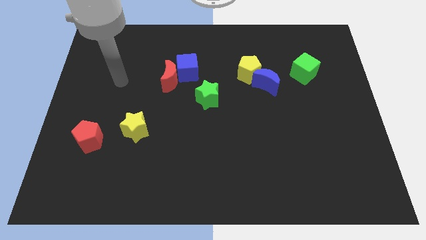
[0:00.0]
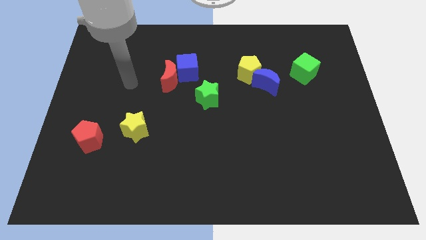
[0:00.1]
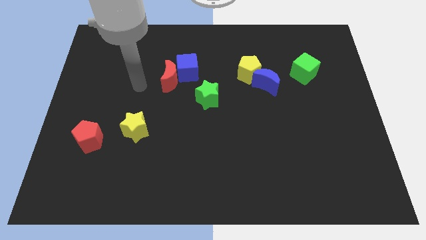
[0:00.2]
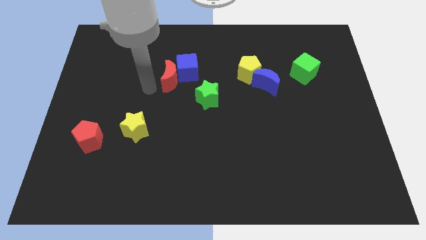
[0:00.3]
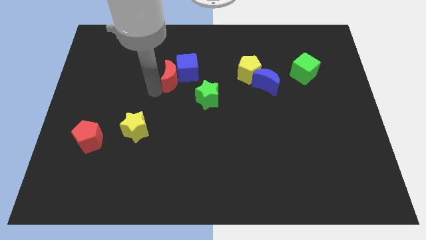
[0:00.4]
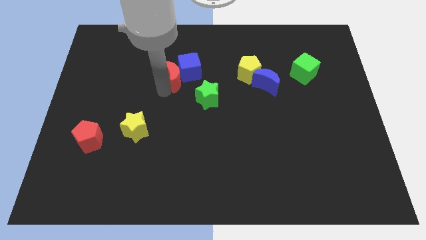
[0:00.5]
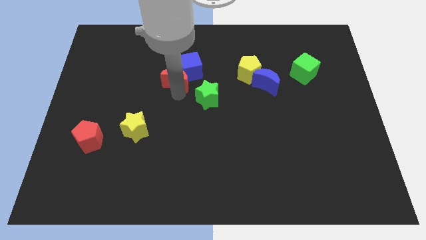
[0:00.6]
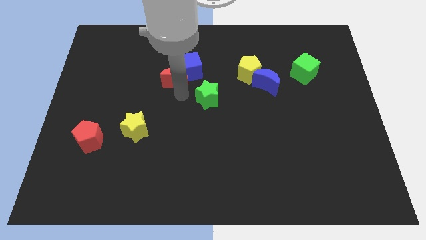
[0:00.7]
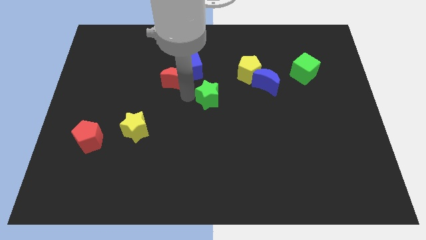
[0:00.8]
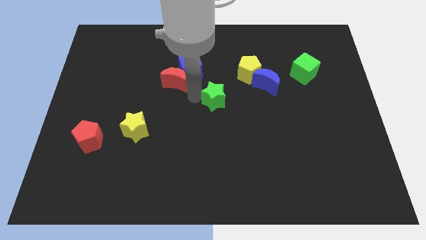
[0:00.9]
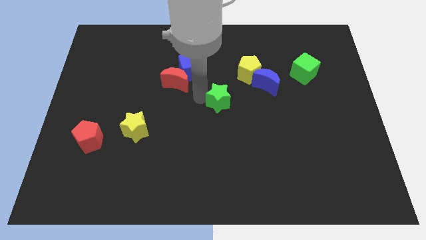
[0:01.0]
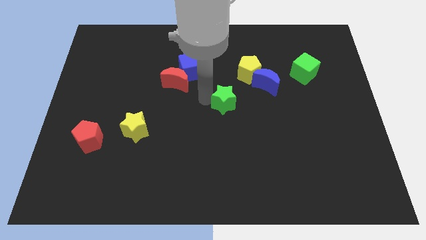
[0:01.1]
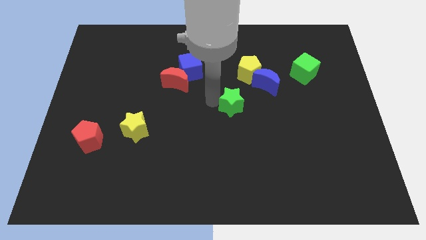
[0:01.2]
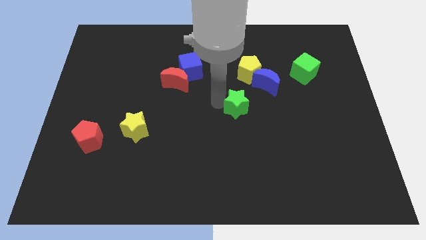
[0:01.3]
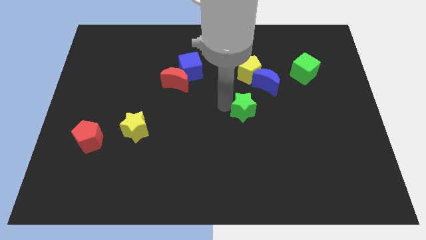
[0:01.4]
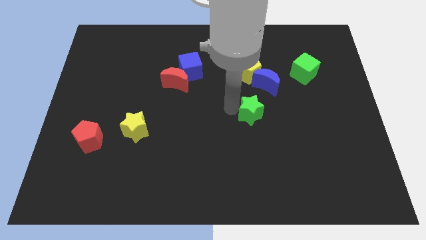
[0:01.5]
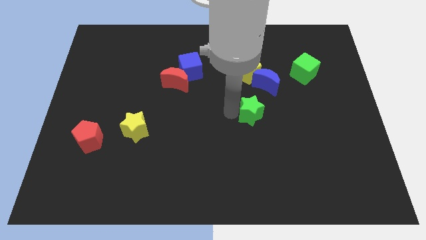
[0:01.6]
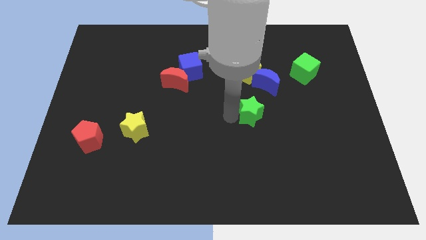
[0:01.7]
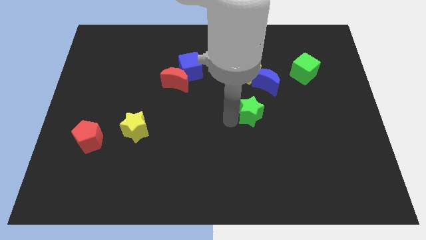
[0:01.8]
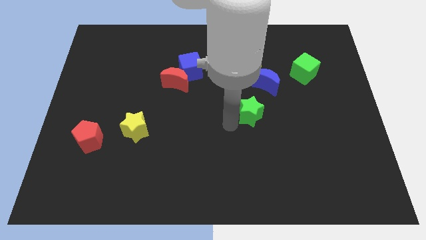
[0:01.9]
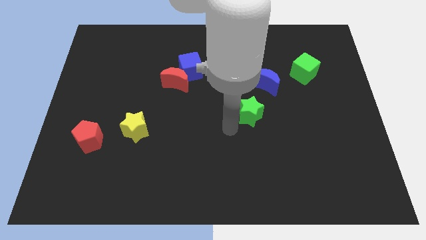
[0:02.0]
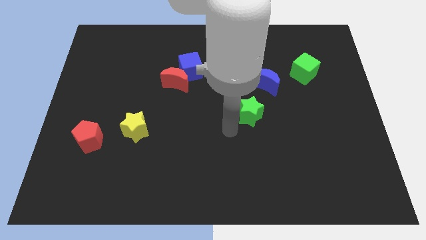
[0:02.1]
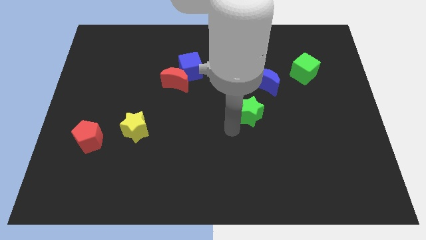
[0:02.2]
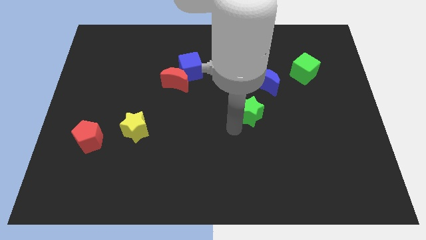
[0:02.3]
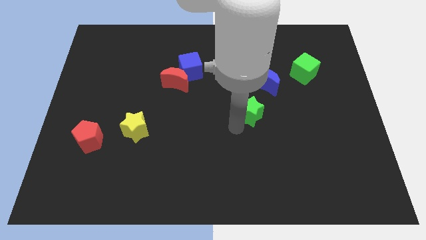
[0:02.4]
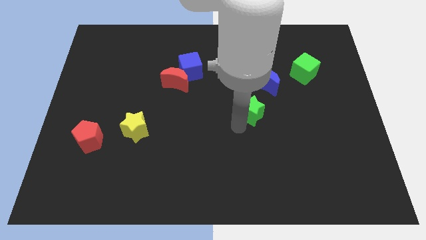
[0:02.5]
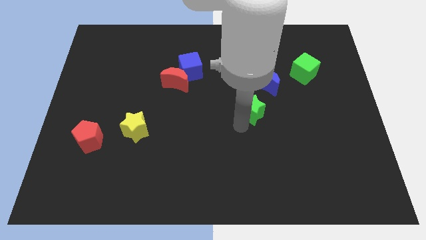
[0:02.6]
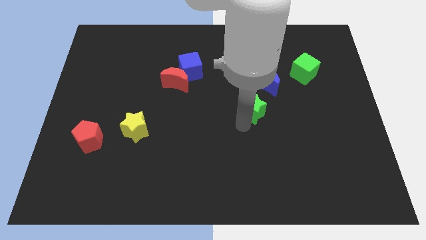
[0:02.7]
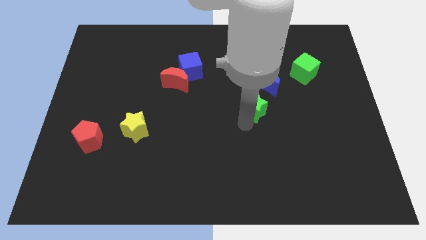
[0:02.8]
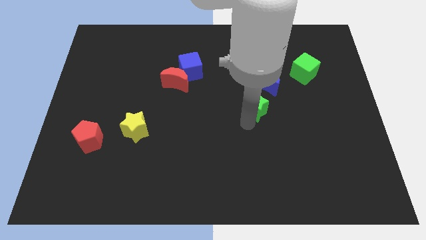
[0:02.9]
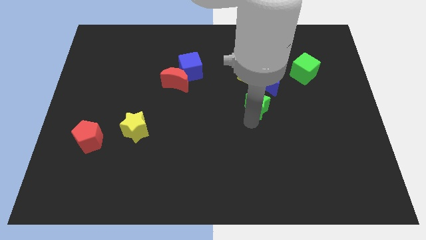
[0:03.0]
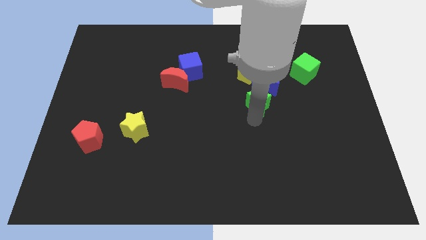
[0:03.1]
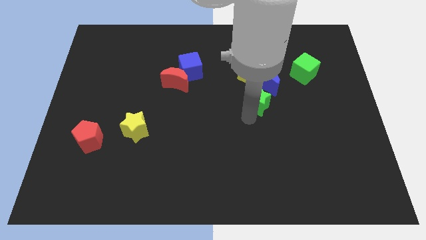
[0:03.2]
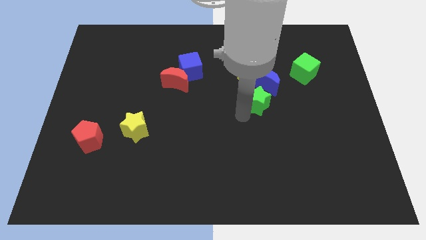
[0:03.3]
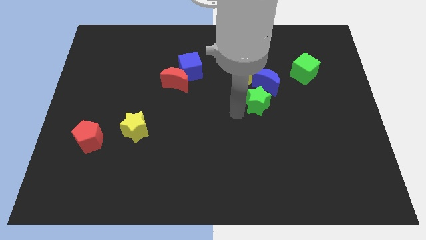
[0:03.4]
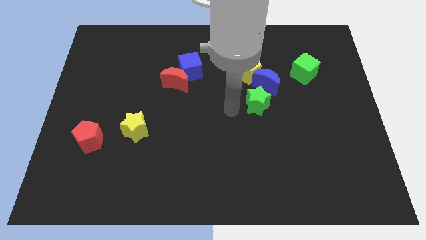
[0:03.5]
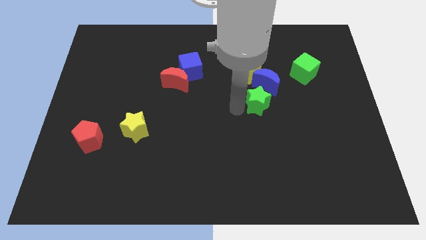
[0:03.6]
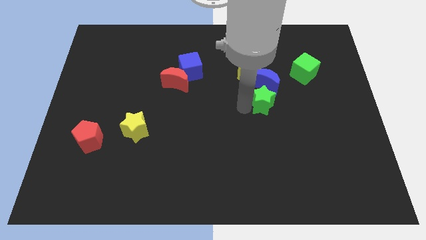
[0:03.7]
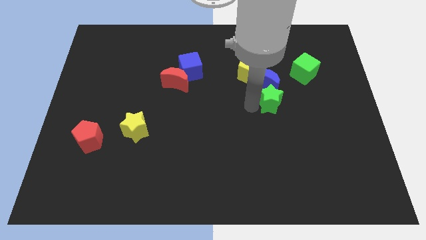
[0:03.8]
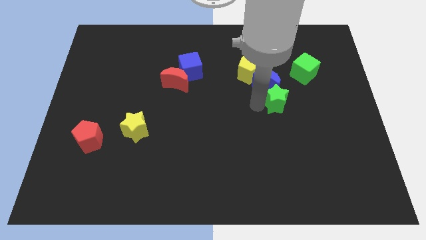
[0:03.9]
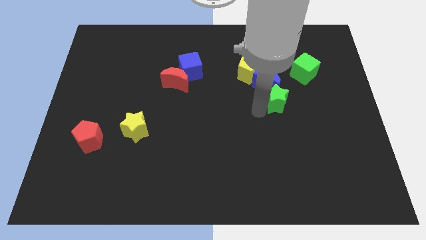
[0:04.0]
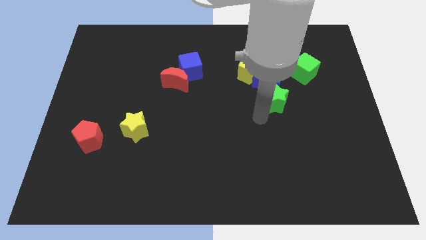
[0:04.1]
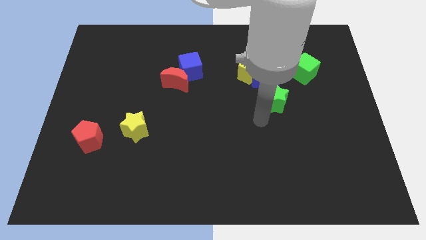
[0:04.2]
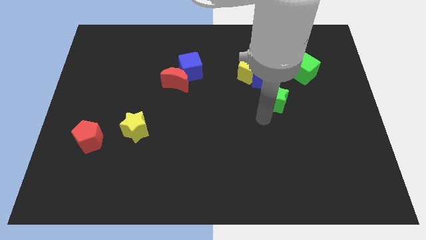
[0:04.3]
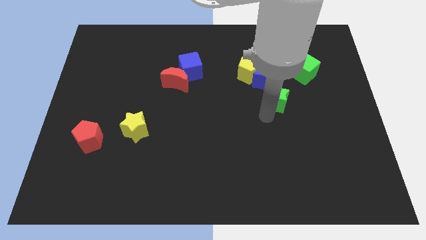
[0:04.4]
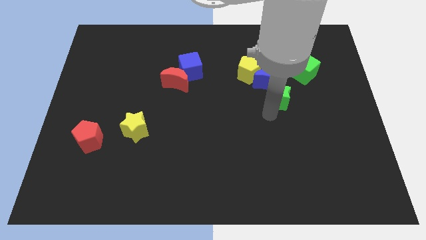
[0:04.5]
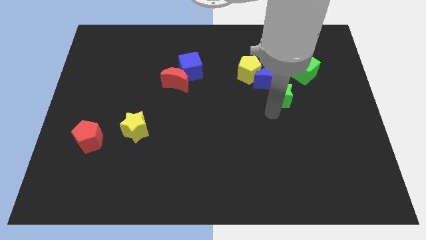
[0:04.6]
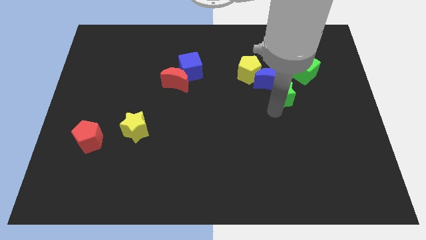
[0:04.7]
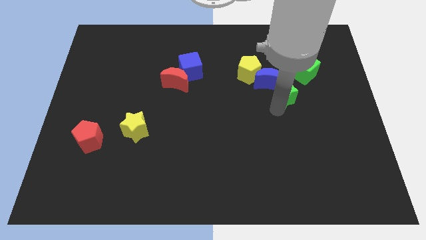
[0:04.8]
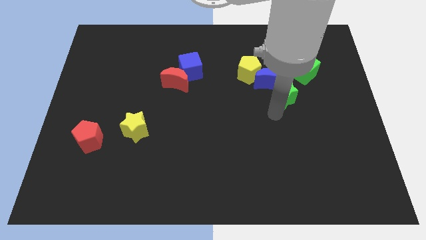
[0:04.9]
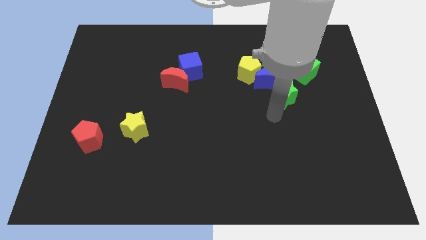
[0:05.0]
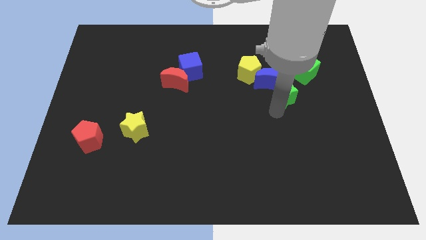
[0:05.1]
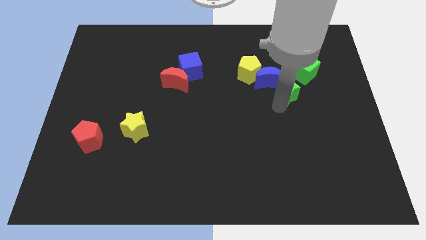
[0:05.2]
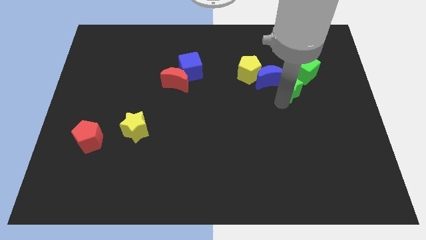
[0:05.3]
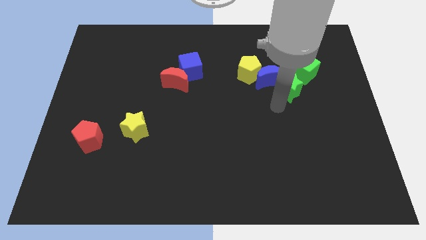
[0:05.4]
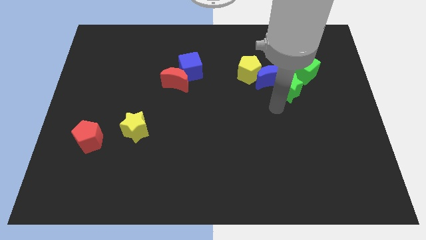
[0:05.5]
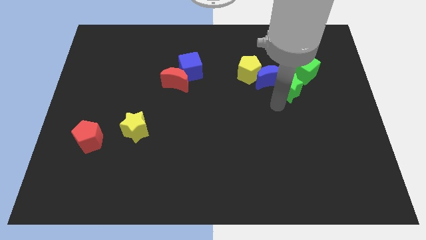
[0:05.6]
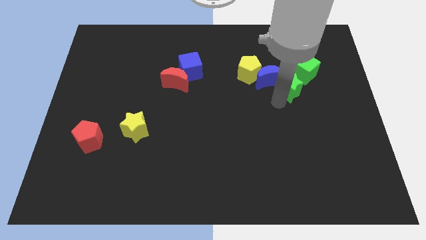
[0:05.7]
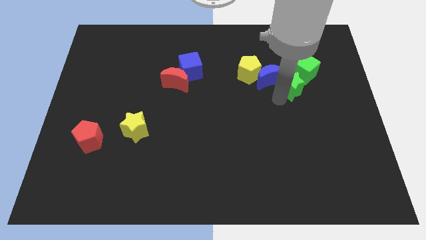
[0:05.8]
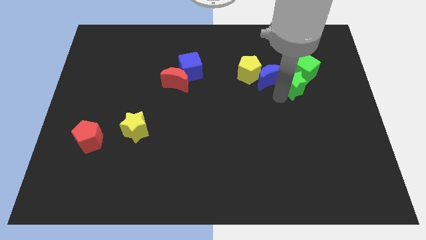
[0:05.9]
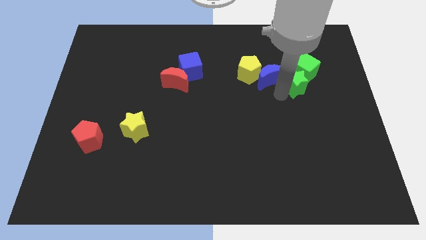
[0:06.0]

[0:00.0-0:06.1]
push the green star towards the green cube

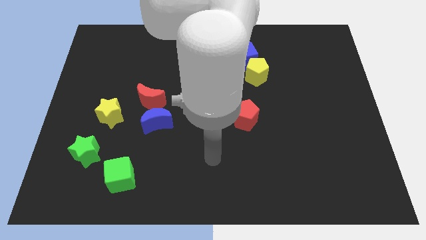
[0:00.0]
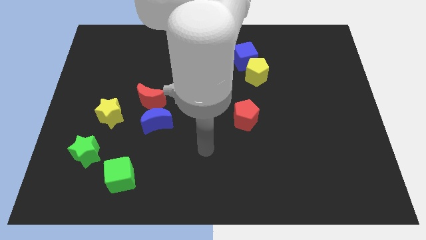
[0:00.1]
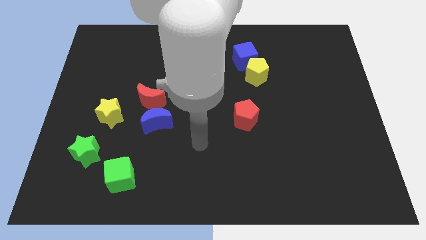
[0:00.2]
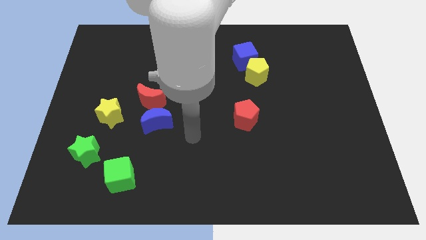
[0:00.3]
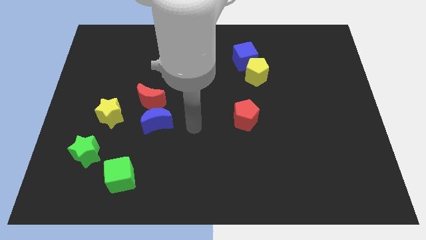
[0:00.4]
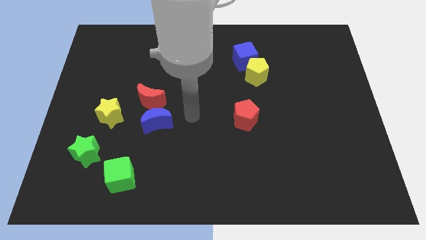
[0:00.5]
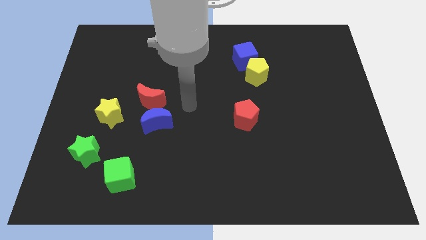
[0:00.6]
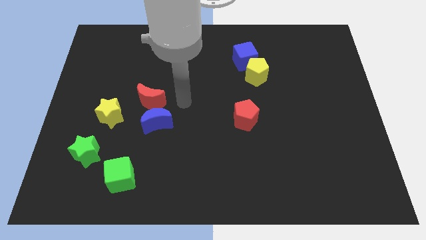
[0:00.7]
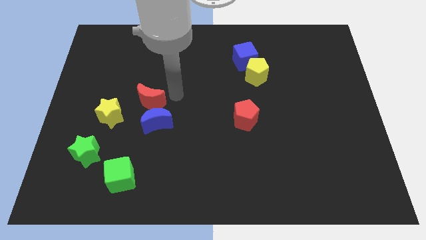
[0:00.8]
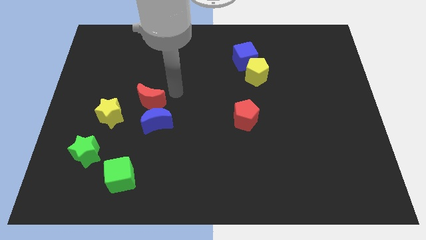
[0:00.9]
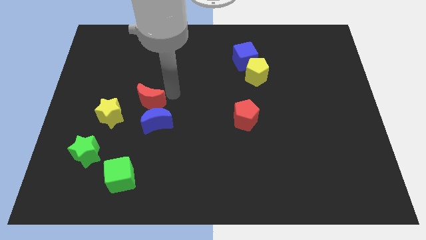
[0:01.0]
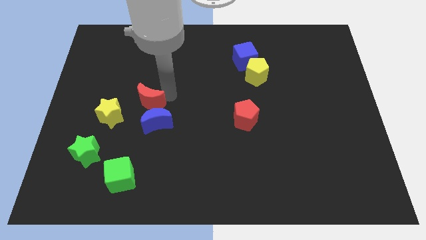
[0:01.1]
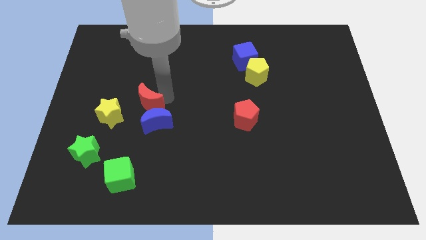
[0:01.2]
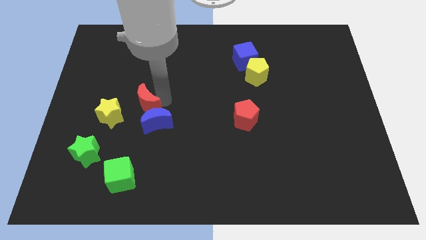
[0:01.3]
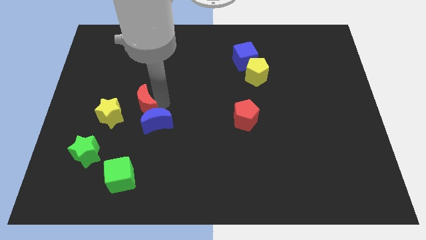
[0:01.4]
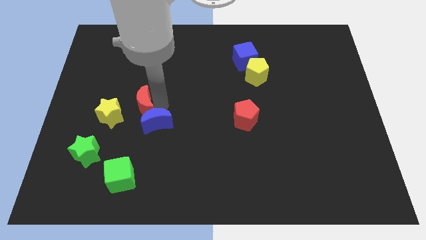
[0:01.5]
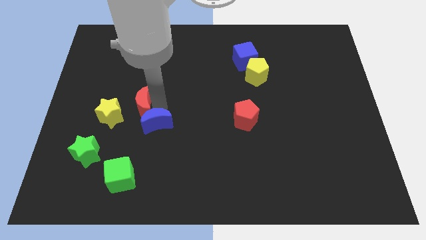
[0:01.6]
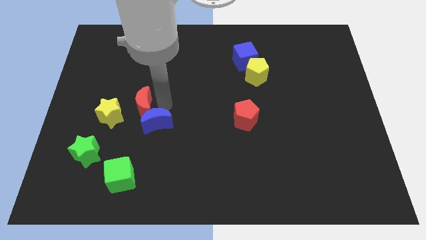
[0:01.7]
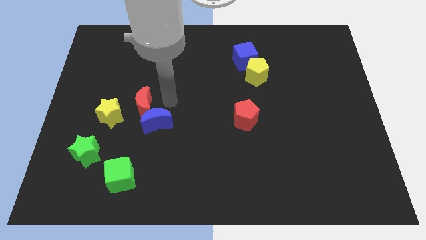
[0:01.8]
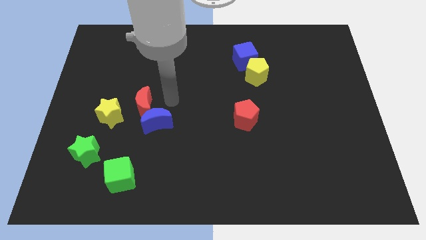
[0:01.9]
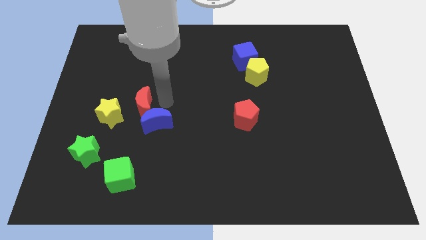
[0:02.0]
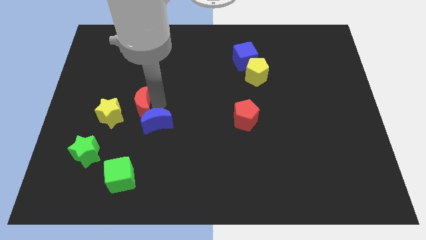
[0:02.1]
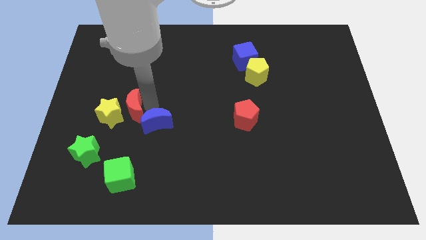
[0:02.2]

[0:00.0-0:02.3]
put the red moon towards the yellow star
